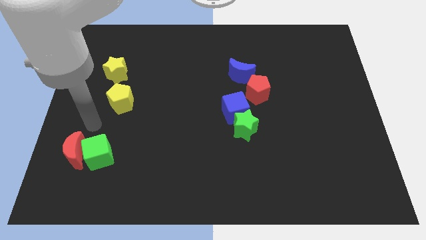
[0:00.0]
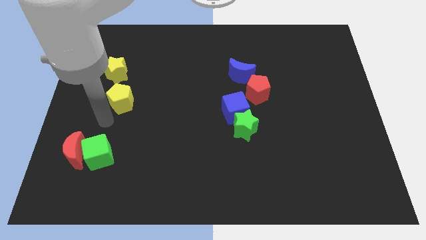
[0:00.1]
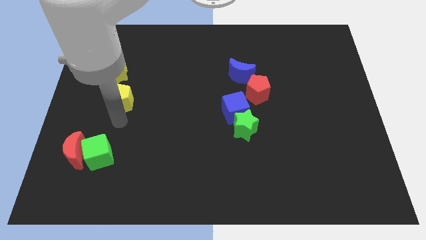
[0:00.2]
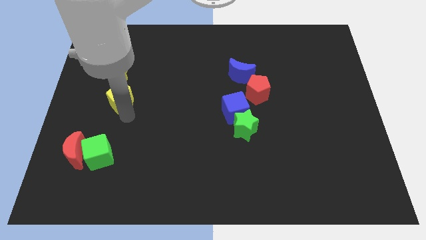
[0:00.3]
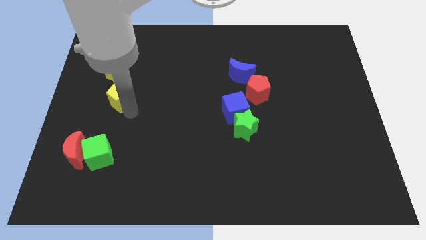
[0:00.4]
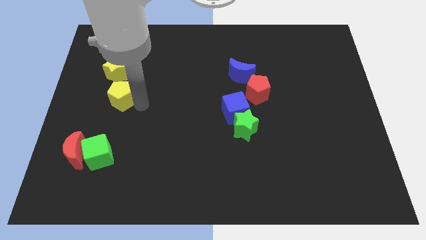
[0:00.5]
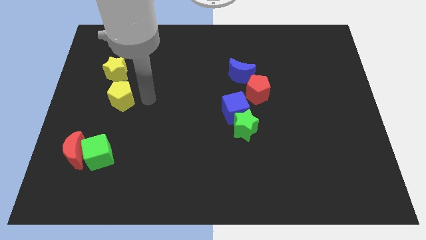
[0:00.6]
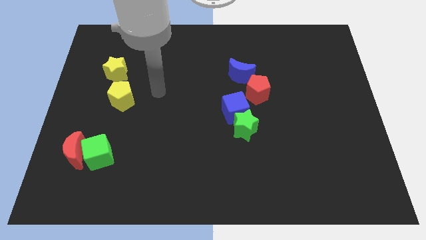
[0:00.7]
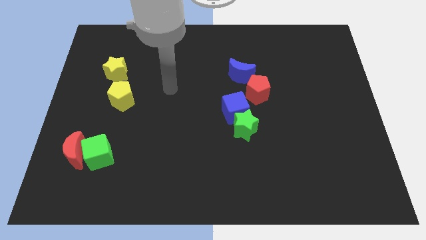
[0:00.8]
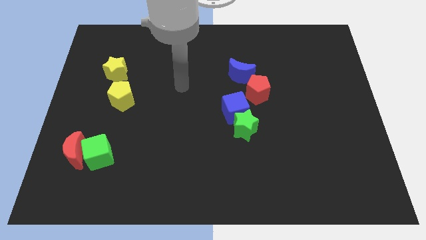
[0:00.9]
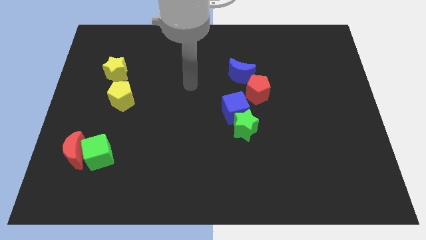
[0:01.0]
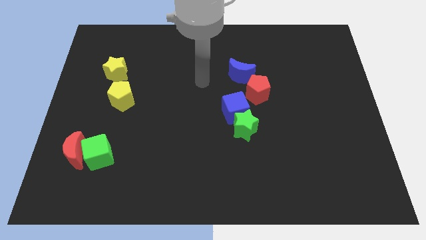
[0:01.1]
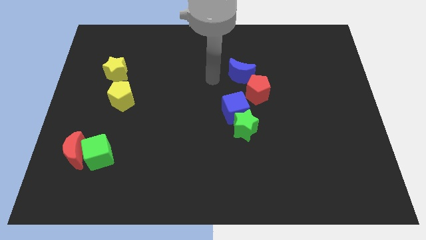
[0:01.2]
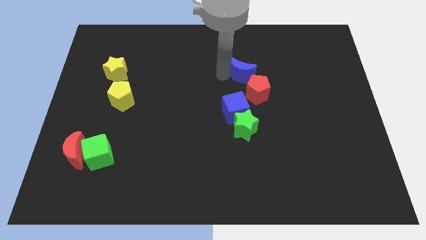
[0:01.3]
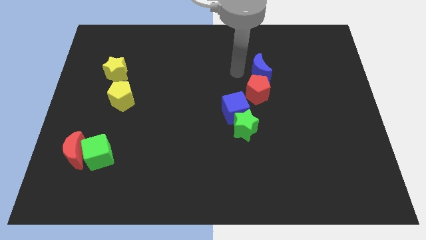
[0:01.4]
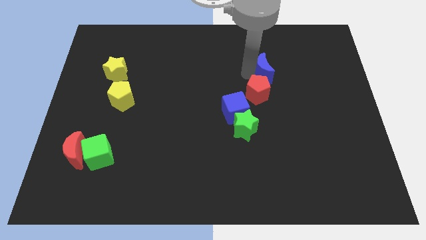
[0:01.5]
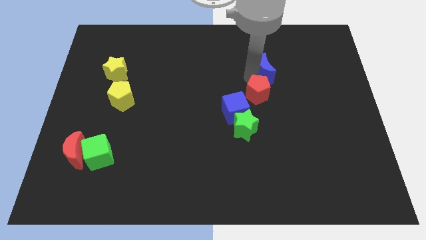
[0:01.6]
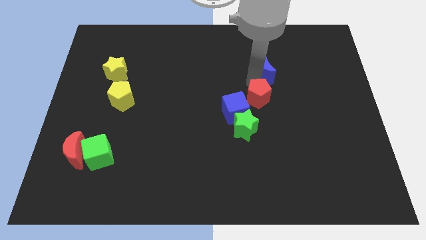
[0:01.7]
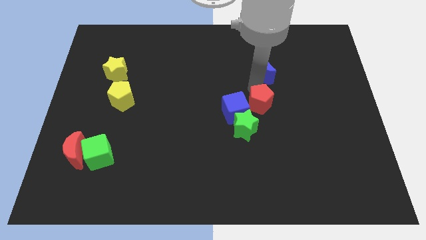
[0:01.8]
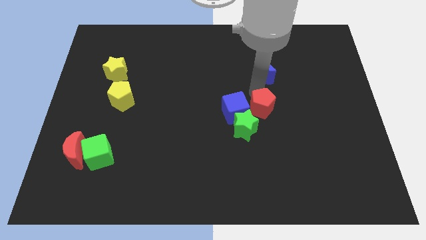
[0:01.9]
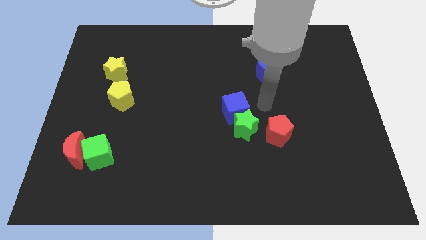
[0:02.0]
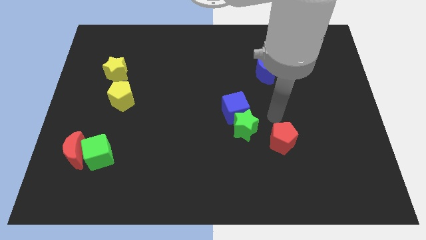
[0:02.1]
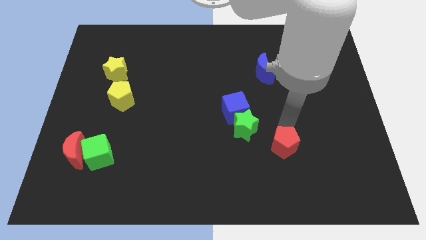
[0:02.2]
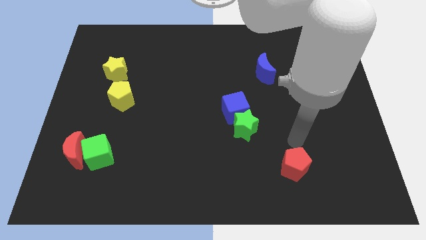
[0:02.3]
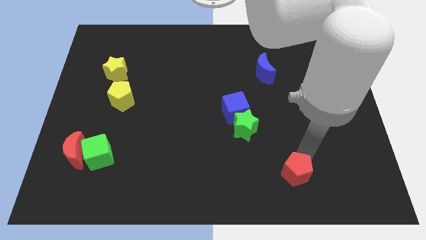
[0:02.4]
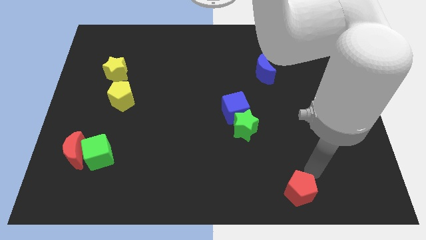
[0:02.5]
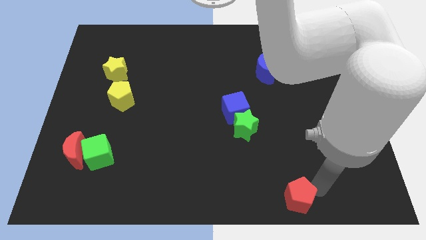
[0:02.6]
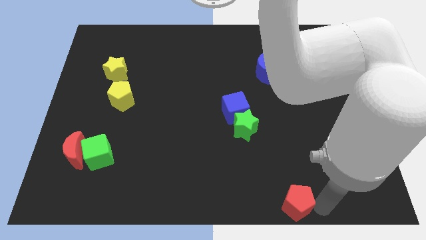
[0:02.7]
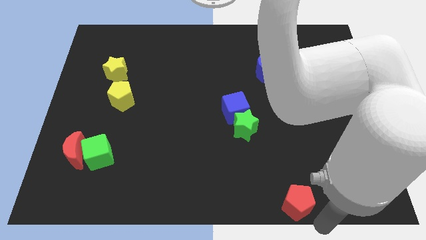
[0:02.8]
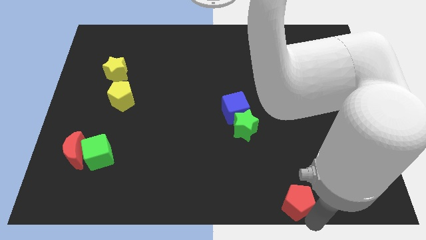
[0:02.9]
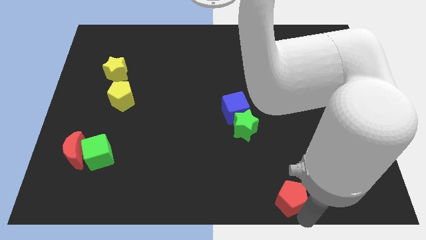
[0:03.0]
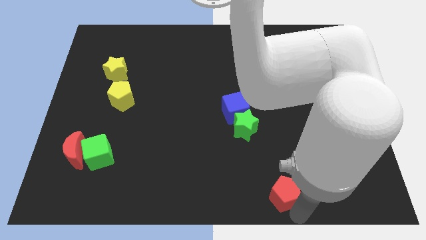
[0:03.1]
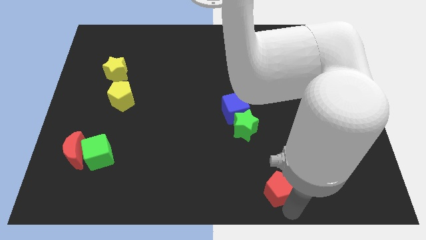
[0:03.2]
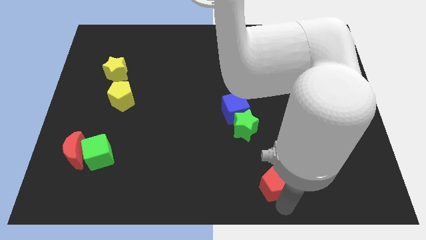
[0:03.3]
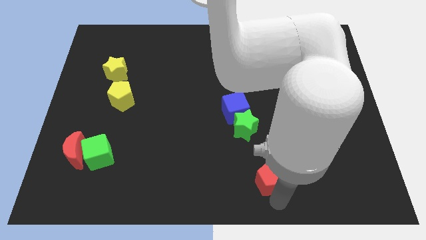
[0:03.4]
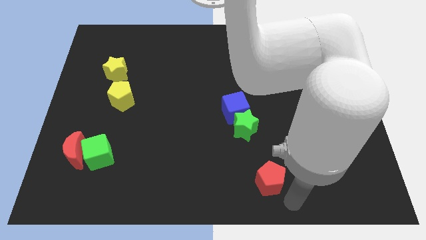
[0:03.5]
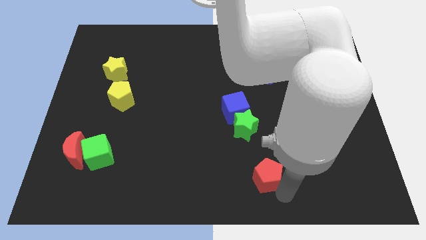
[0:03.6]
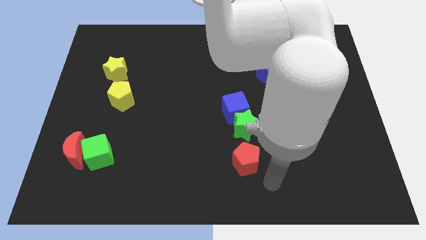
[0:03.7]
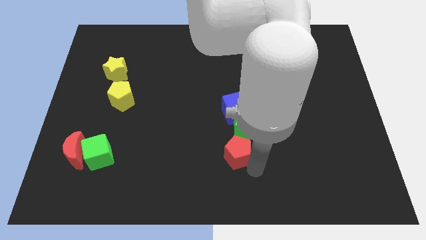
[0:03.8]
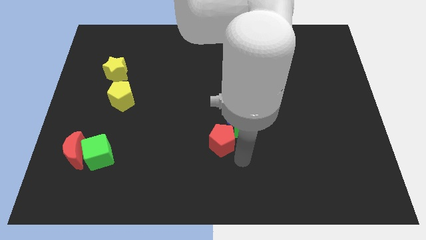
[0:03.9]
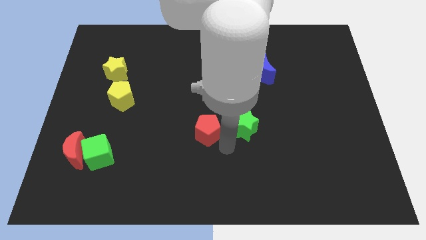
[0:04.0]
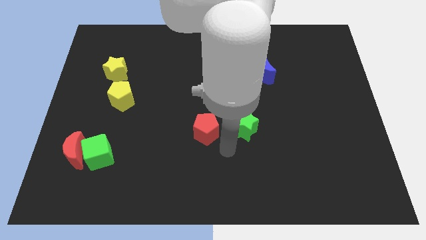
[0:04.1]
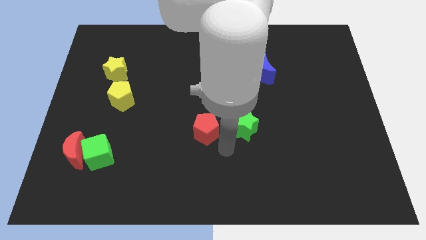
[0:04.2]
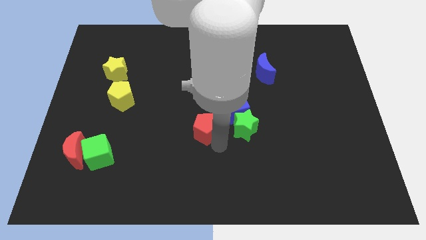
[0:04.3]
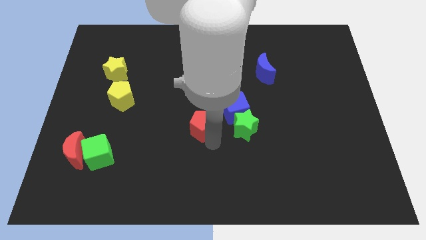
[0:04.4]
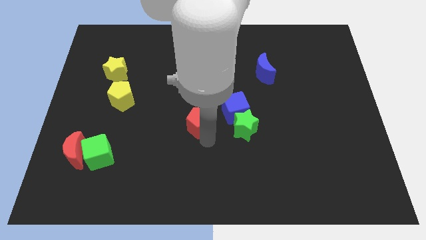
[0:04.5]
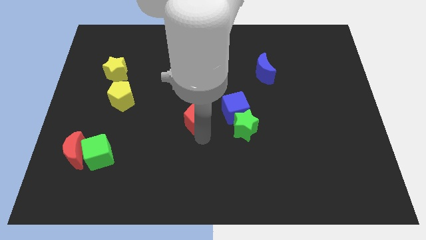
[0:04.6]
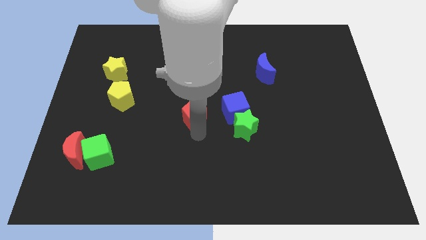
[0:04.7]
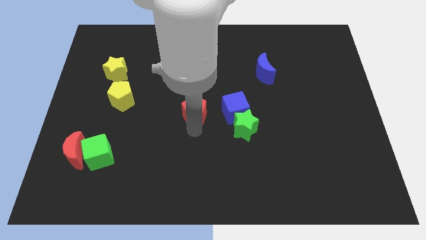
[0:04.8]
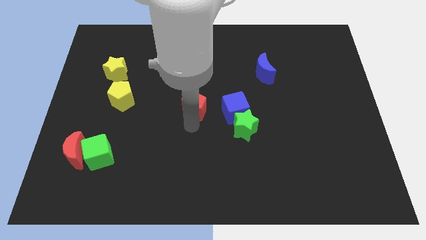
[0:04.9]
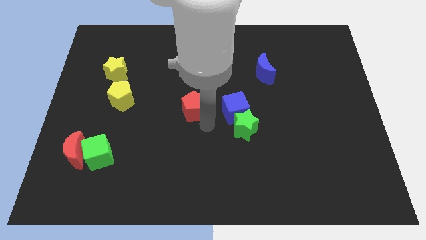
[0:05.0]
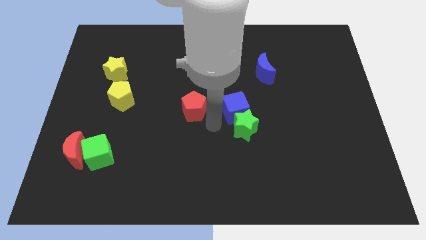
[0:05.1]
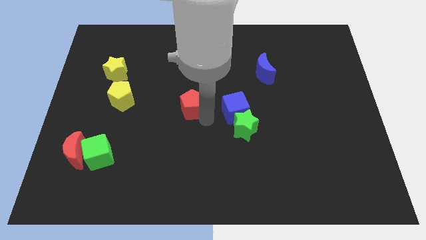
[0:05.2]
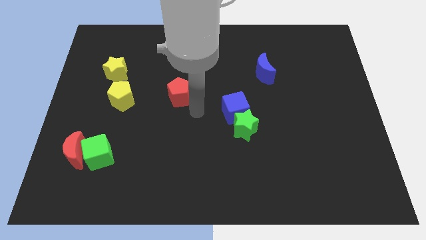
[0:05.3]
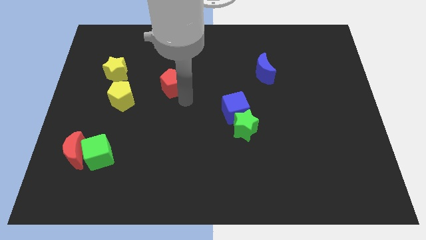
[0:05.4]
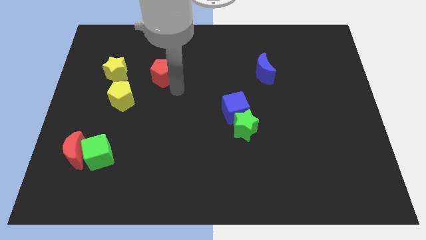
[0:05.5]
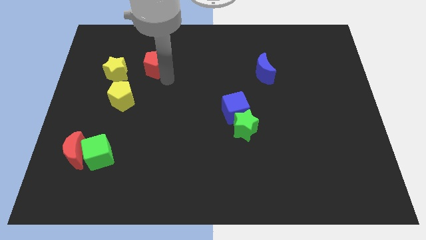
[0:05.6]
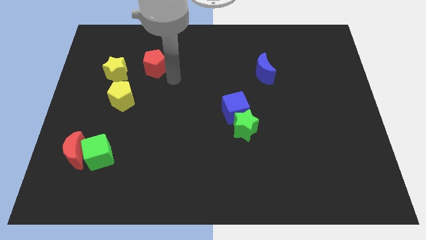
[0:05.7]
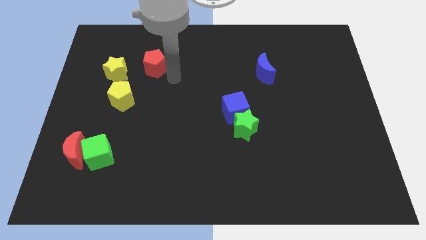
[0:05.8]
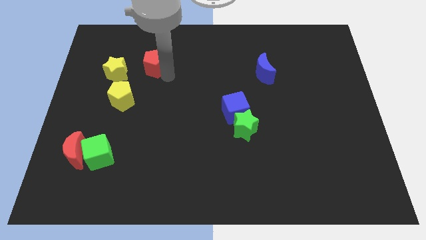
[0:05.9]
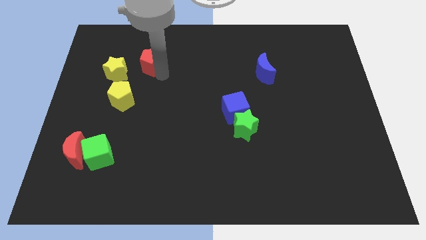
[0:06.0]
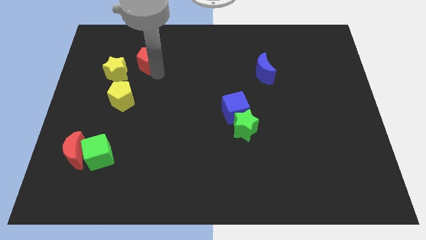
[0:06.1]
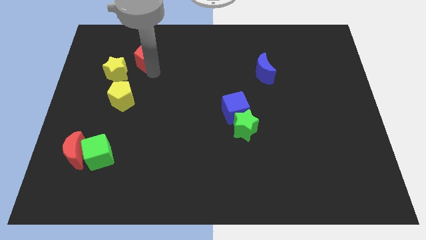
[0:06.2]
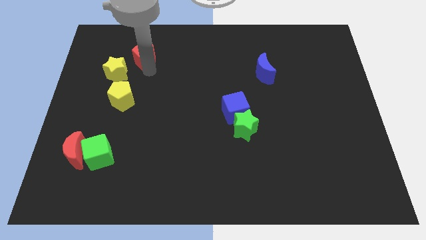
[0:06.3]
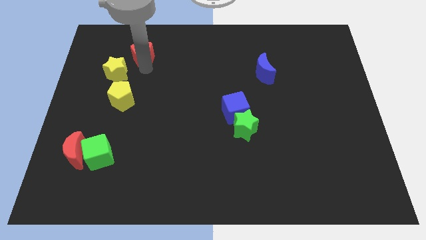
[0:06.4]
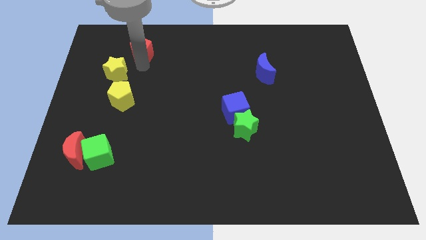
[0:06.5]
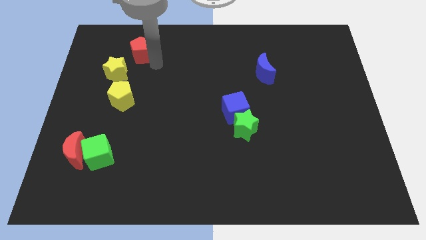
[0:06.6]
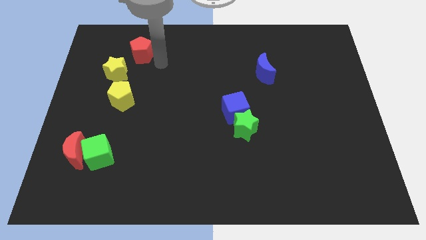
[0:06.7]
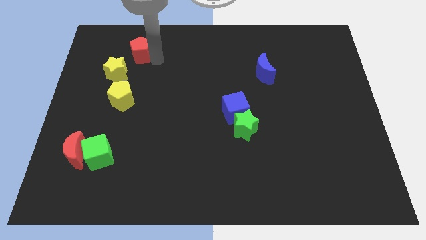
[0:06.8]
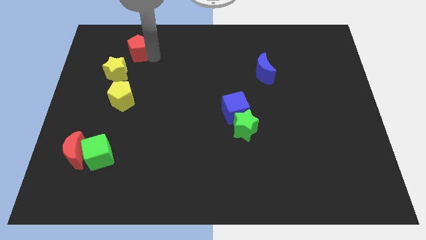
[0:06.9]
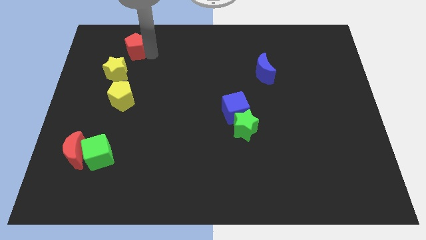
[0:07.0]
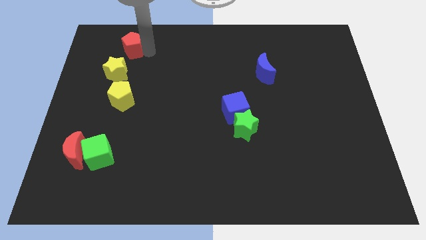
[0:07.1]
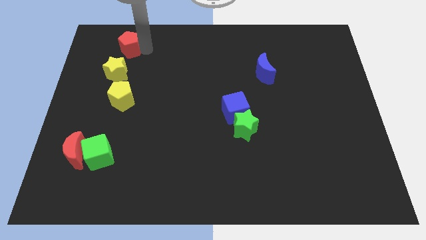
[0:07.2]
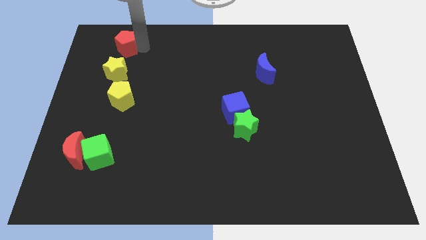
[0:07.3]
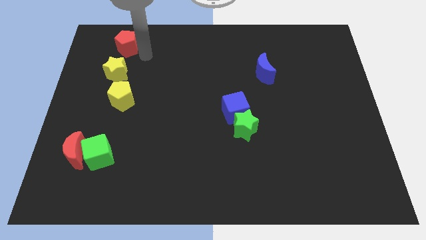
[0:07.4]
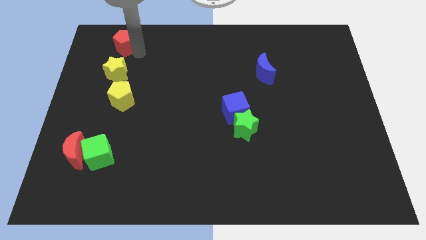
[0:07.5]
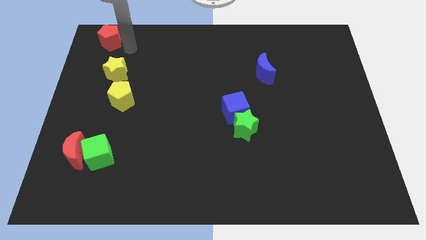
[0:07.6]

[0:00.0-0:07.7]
move the red pentagon to the top left of the board
